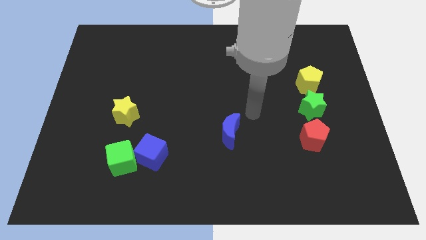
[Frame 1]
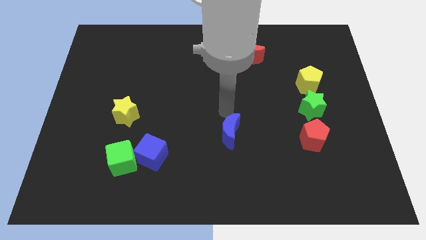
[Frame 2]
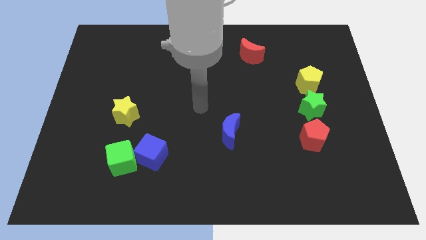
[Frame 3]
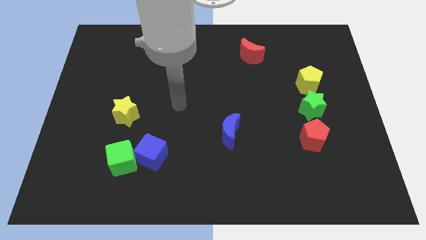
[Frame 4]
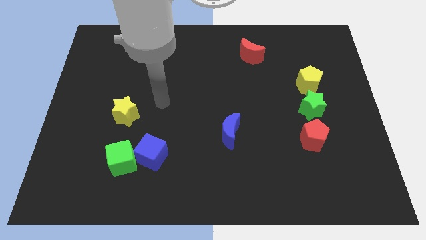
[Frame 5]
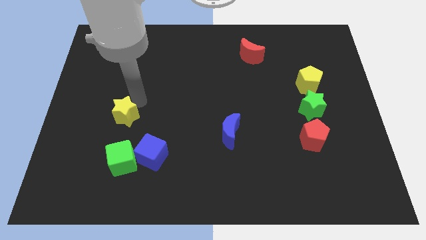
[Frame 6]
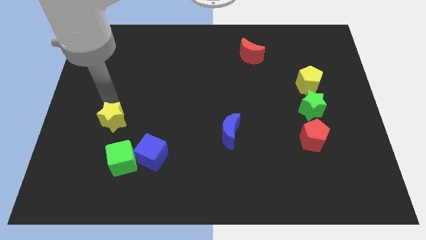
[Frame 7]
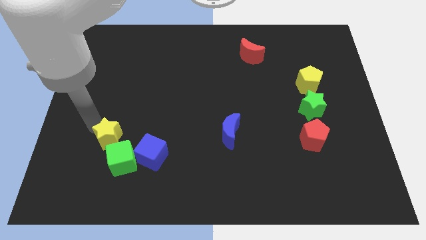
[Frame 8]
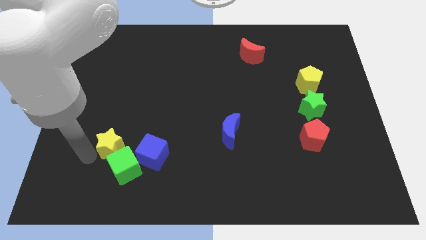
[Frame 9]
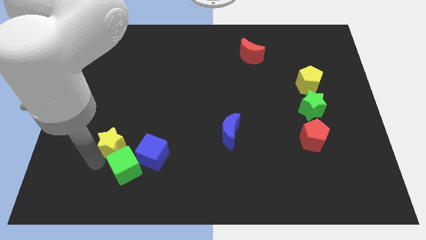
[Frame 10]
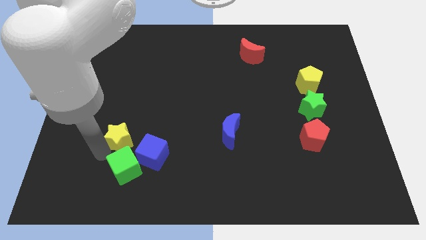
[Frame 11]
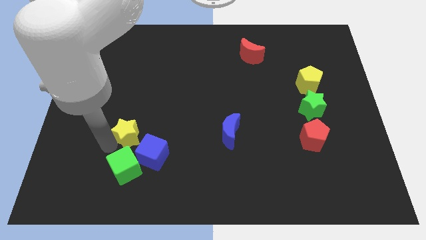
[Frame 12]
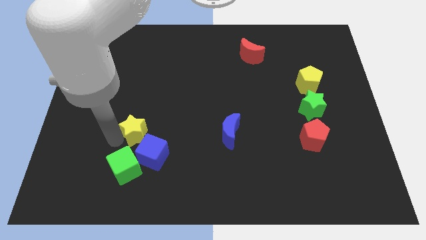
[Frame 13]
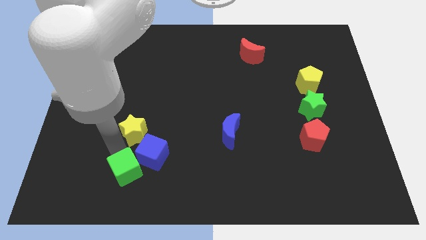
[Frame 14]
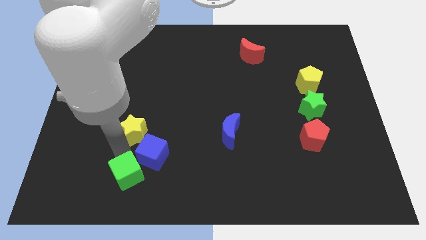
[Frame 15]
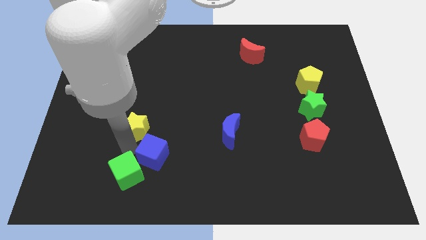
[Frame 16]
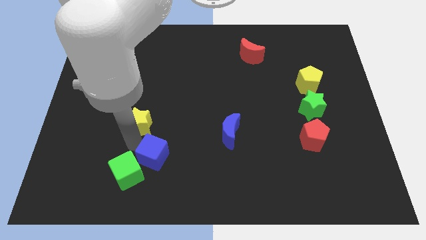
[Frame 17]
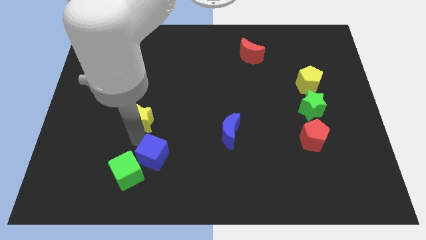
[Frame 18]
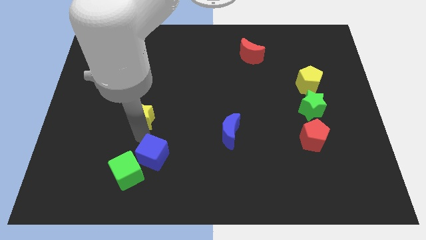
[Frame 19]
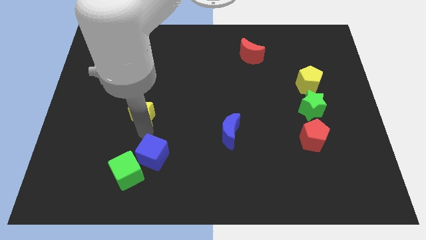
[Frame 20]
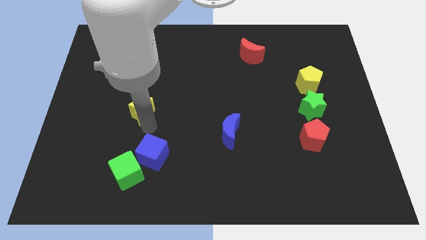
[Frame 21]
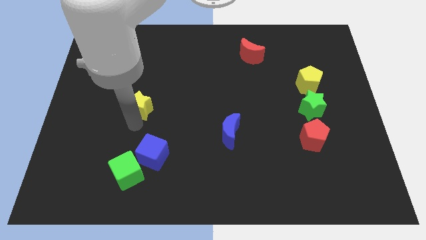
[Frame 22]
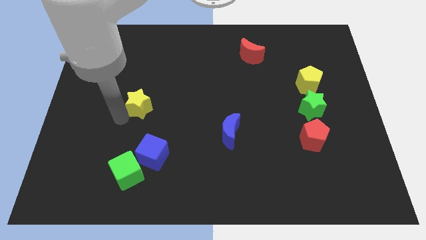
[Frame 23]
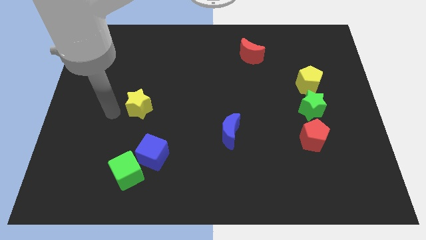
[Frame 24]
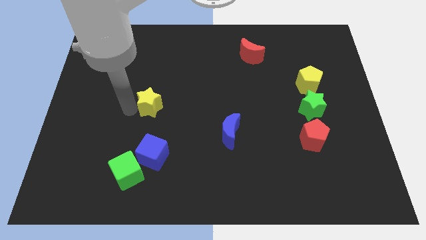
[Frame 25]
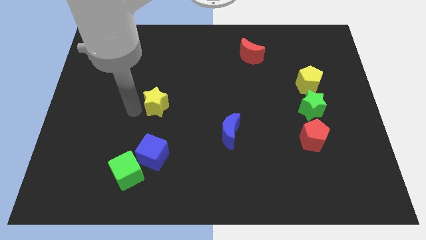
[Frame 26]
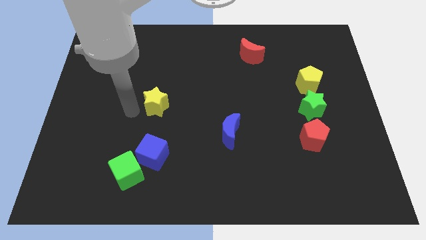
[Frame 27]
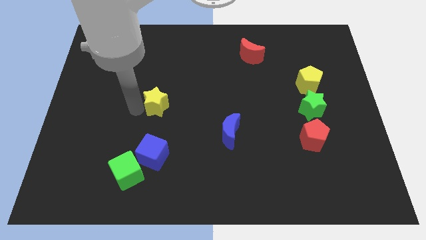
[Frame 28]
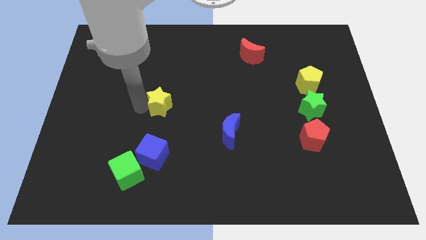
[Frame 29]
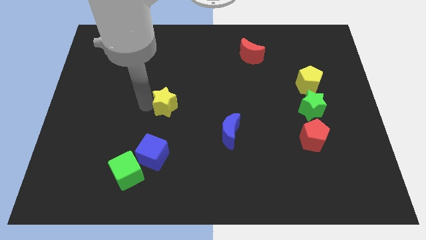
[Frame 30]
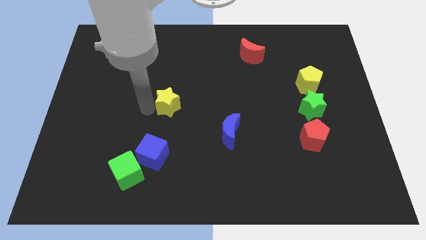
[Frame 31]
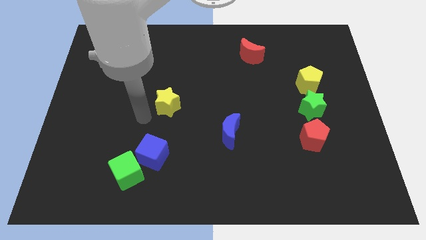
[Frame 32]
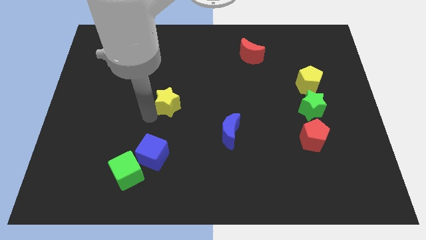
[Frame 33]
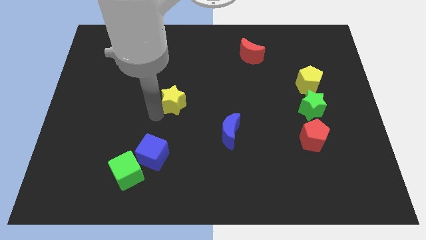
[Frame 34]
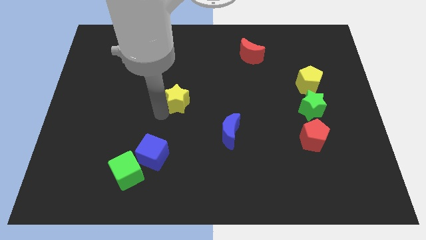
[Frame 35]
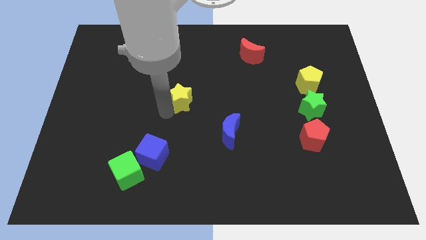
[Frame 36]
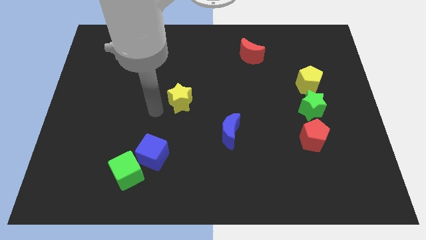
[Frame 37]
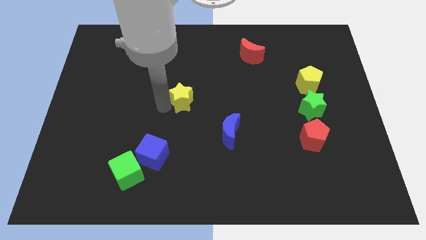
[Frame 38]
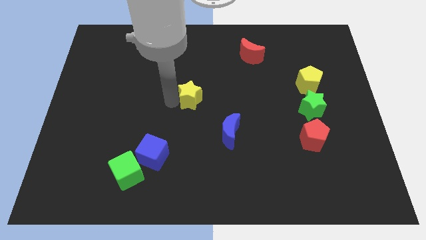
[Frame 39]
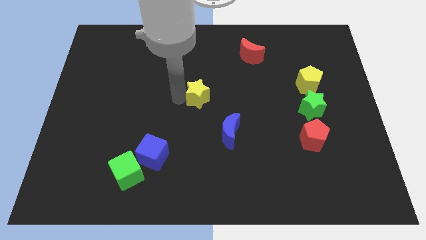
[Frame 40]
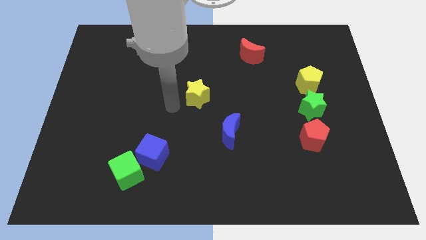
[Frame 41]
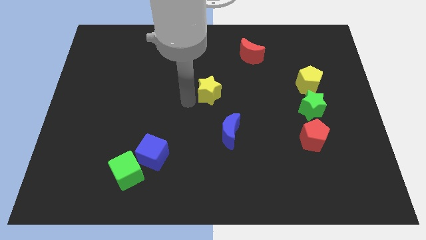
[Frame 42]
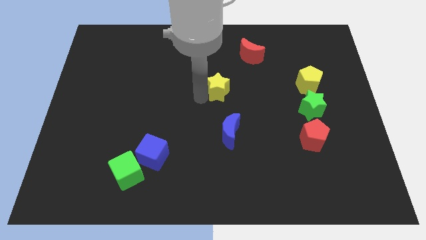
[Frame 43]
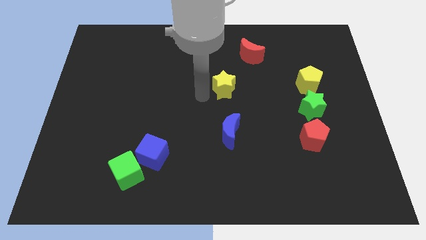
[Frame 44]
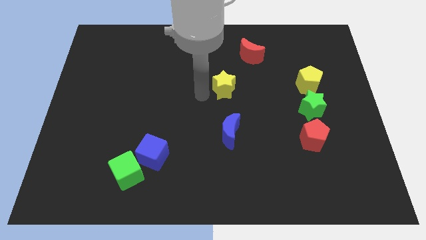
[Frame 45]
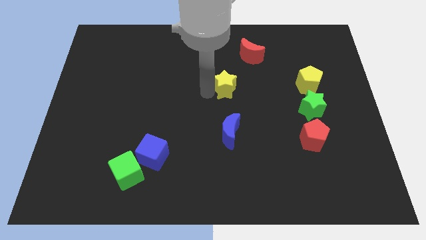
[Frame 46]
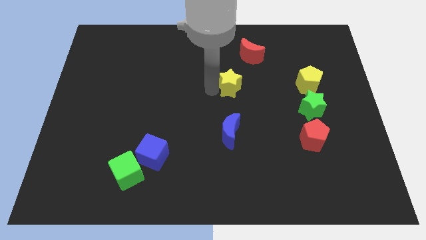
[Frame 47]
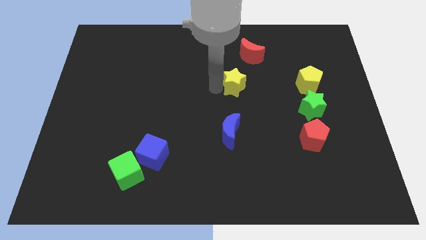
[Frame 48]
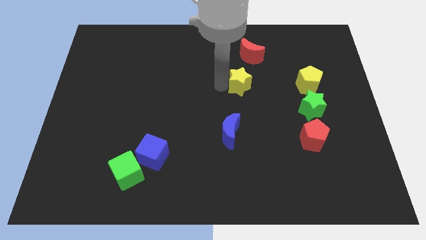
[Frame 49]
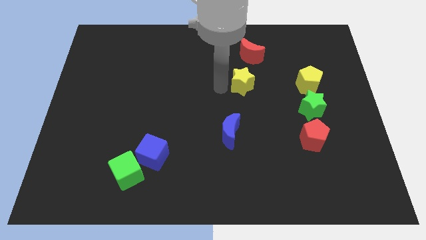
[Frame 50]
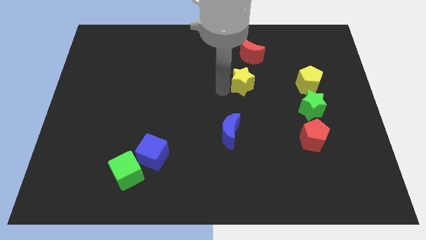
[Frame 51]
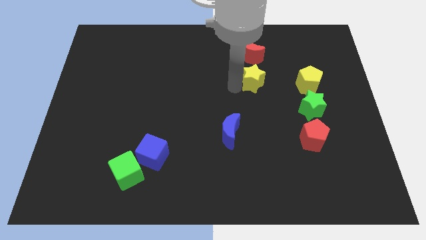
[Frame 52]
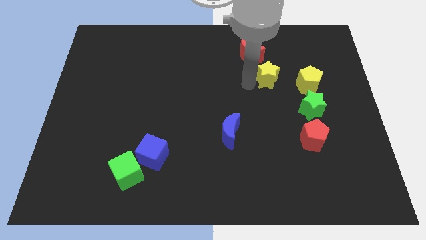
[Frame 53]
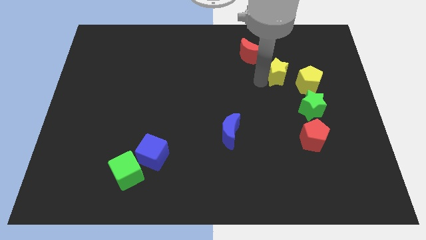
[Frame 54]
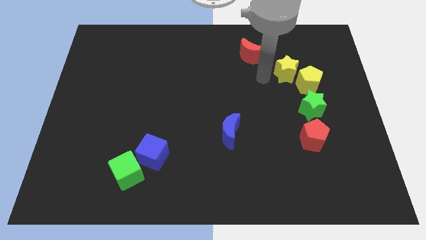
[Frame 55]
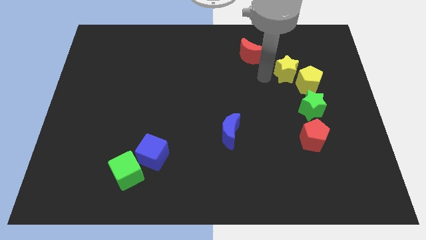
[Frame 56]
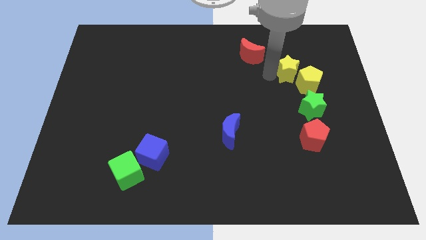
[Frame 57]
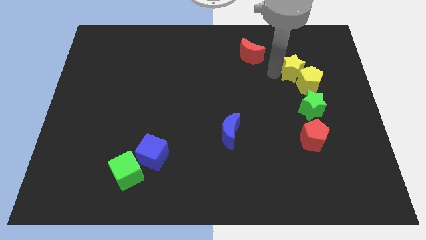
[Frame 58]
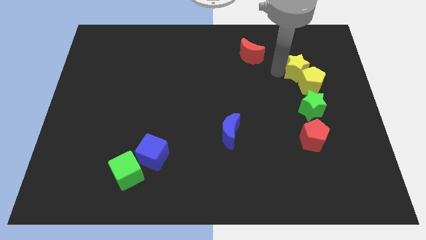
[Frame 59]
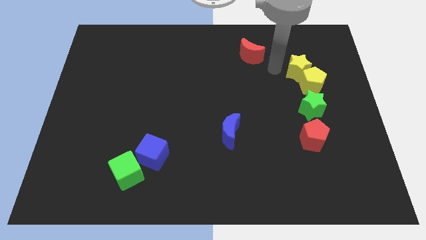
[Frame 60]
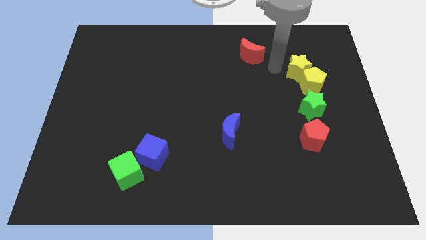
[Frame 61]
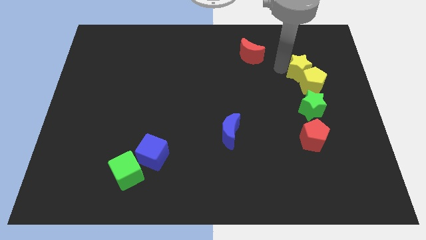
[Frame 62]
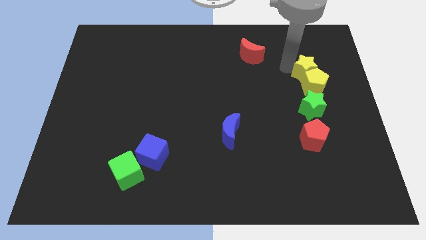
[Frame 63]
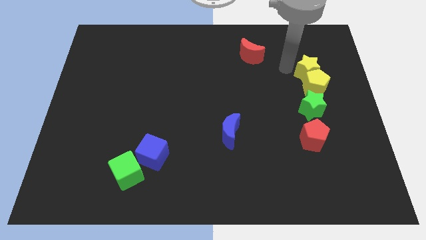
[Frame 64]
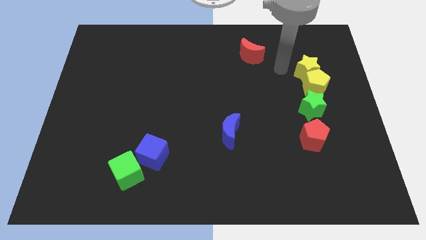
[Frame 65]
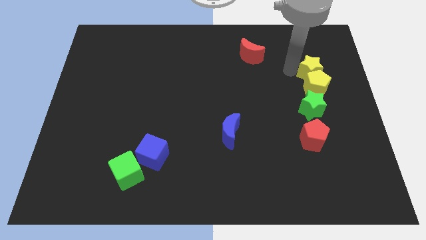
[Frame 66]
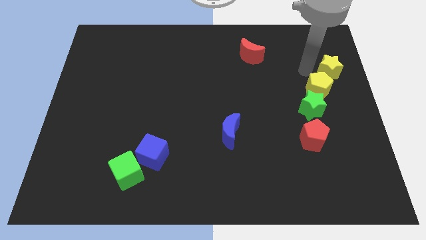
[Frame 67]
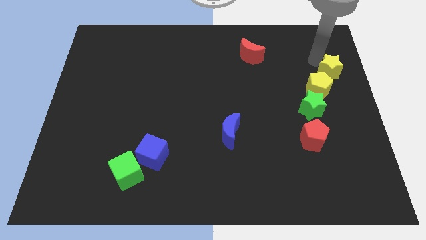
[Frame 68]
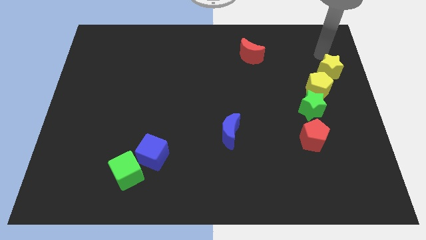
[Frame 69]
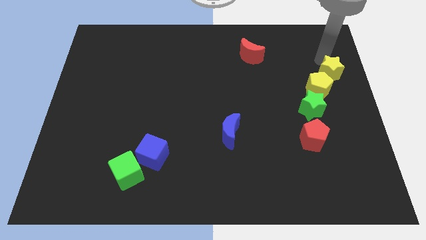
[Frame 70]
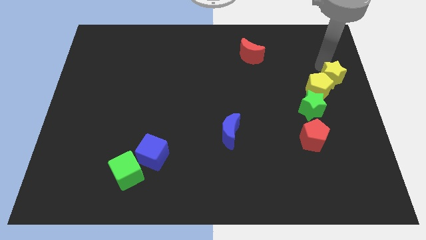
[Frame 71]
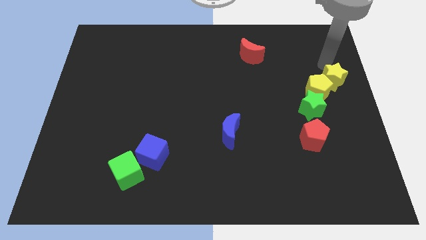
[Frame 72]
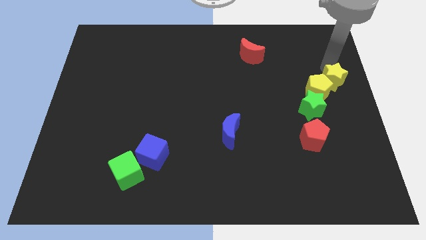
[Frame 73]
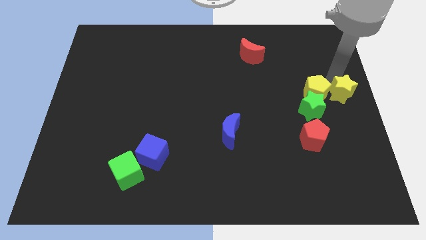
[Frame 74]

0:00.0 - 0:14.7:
move the yellow star diagonally down and to the right of the yellow pentagon
